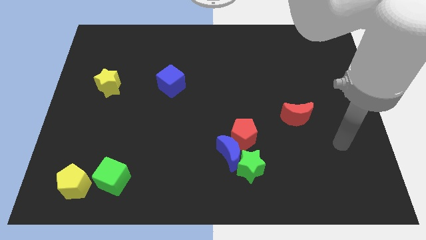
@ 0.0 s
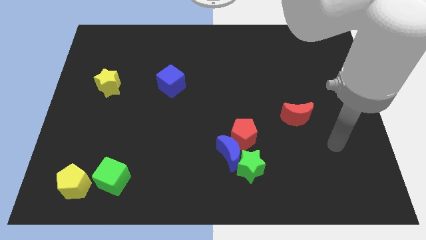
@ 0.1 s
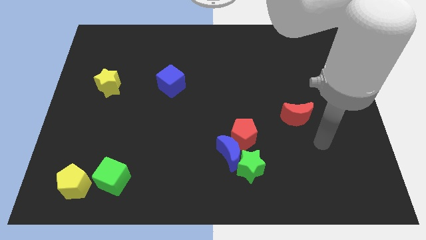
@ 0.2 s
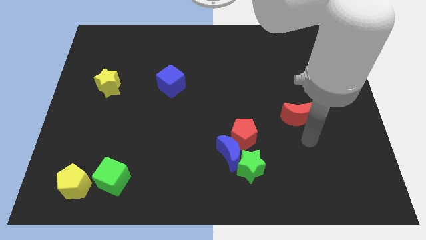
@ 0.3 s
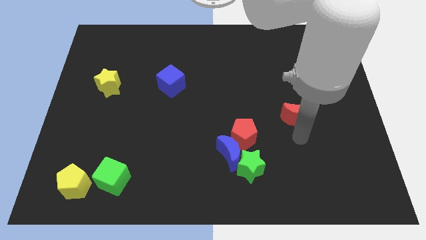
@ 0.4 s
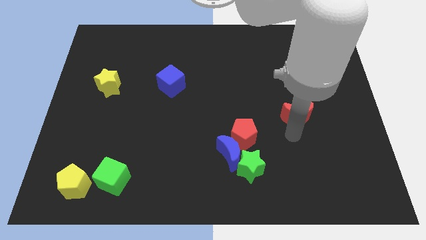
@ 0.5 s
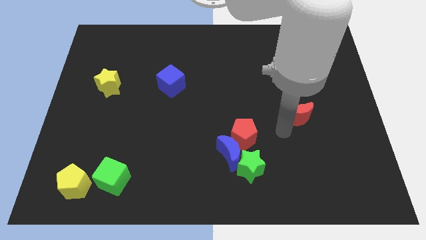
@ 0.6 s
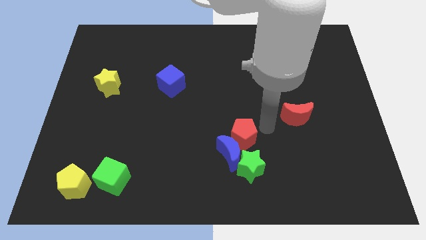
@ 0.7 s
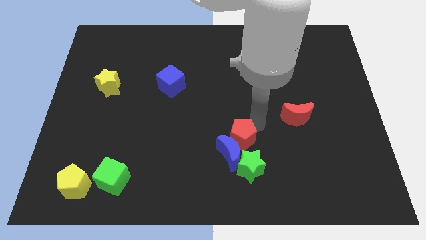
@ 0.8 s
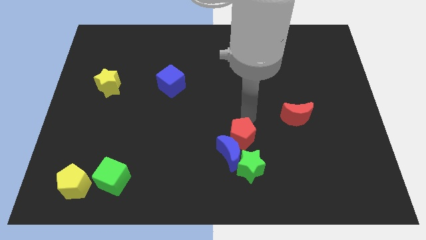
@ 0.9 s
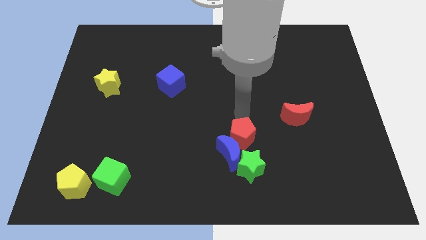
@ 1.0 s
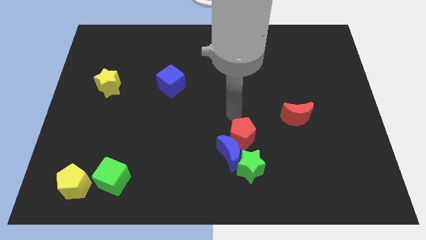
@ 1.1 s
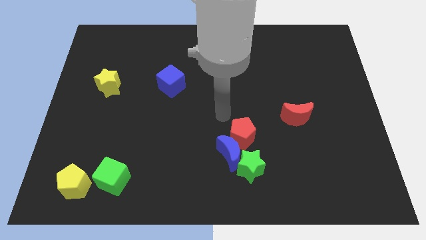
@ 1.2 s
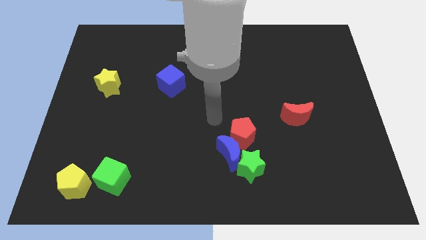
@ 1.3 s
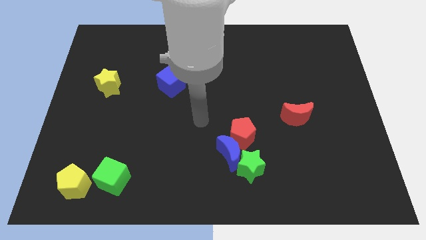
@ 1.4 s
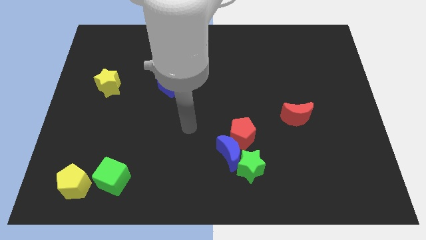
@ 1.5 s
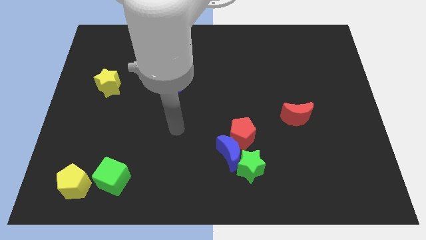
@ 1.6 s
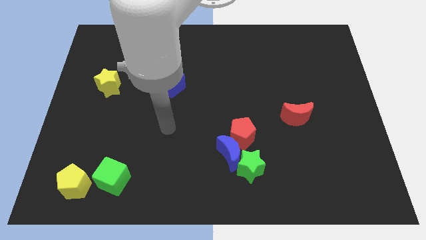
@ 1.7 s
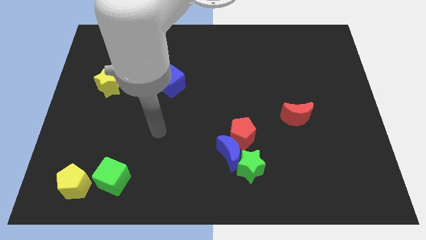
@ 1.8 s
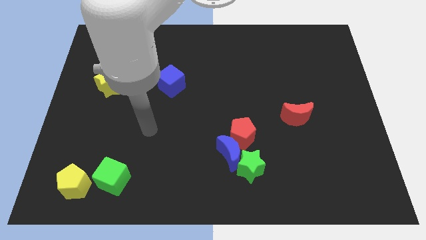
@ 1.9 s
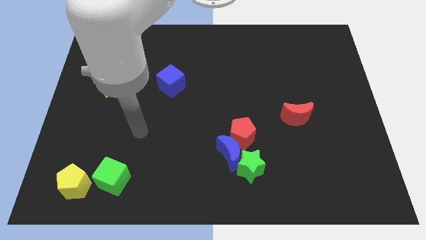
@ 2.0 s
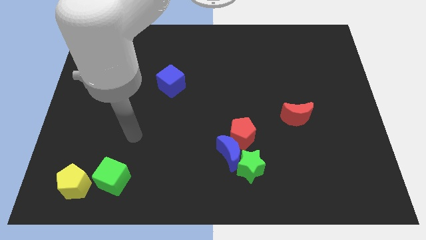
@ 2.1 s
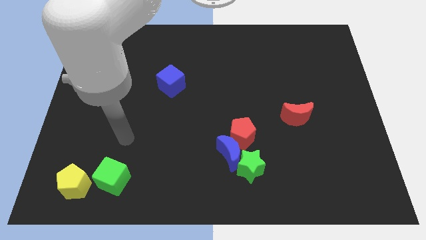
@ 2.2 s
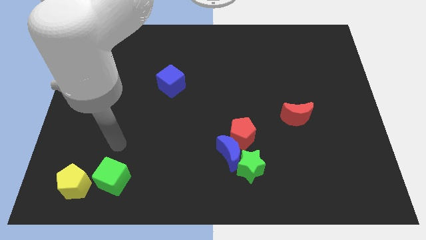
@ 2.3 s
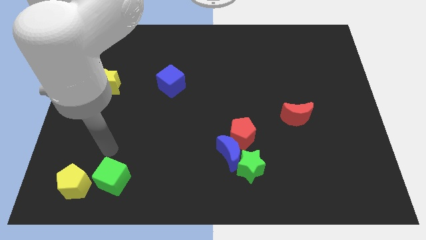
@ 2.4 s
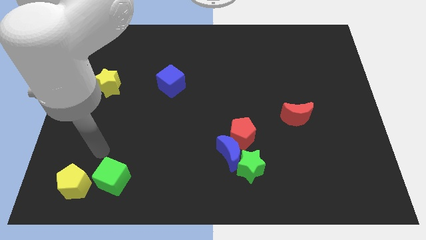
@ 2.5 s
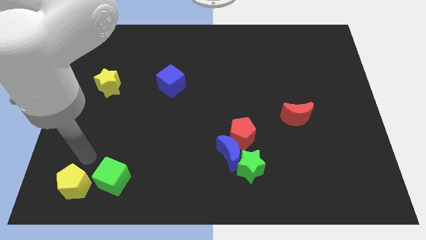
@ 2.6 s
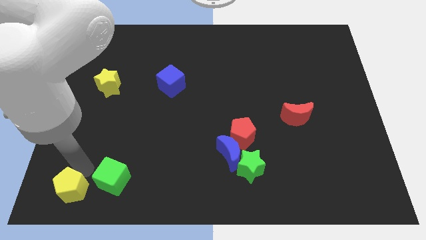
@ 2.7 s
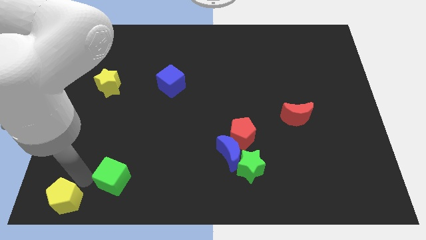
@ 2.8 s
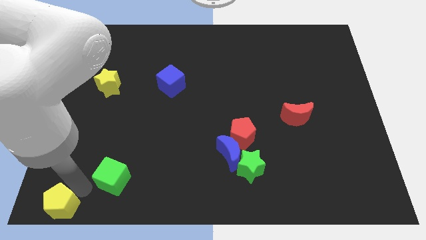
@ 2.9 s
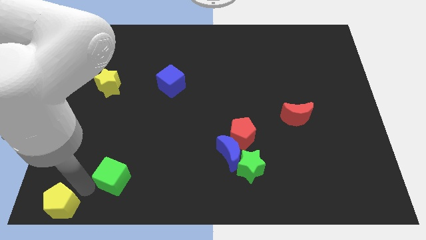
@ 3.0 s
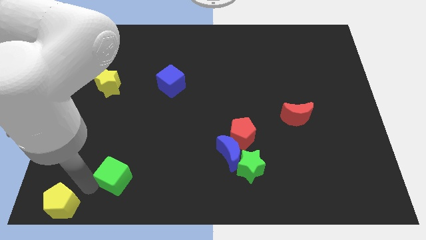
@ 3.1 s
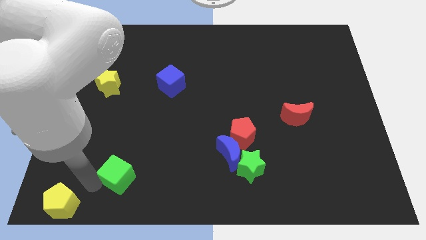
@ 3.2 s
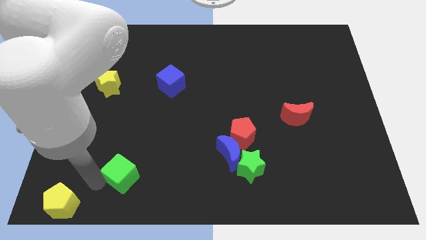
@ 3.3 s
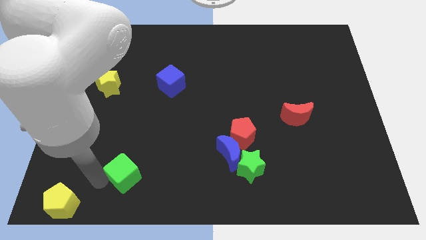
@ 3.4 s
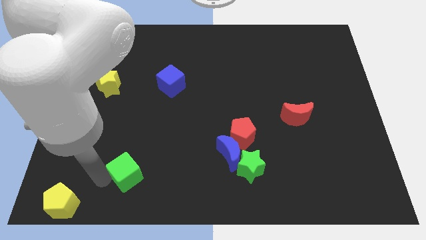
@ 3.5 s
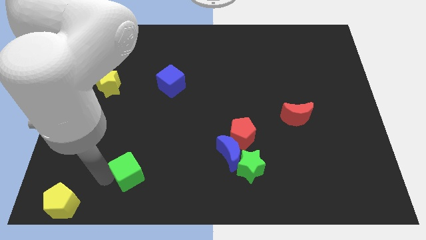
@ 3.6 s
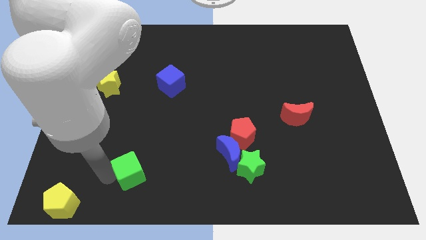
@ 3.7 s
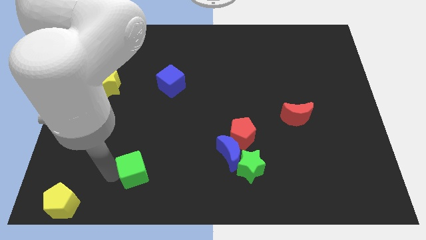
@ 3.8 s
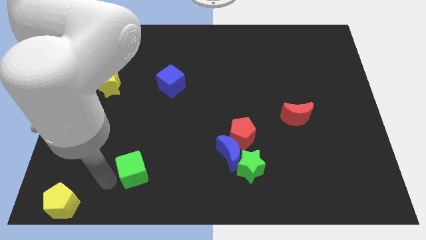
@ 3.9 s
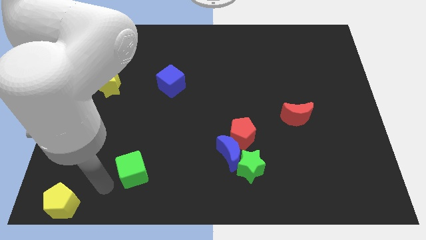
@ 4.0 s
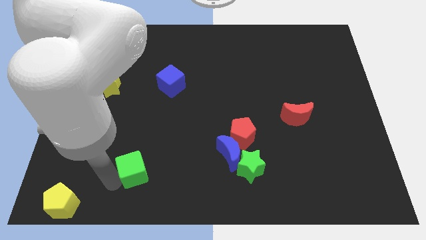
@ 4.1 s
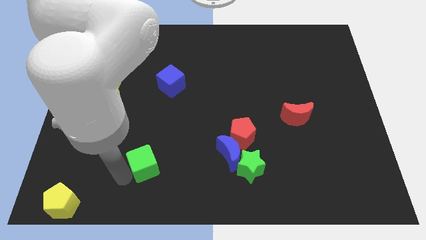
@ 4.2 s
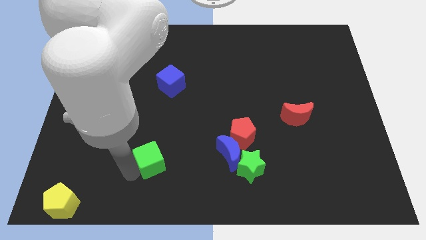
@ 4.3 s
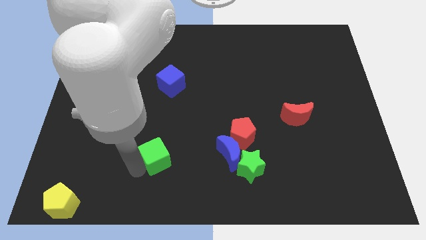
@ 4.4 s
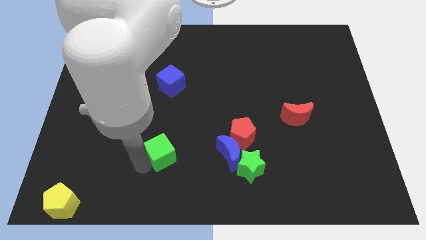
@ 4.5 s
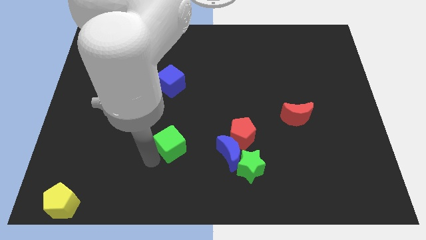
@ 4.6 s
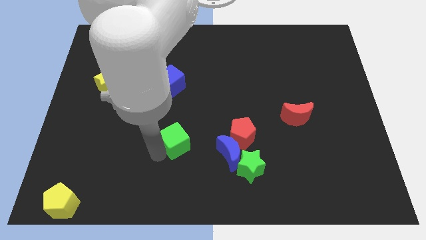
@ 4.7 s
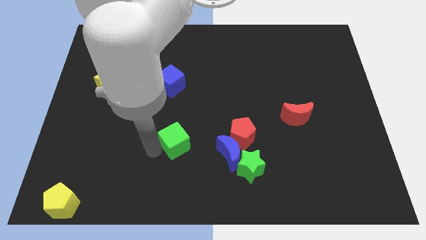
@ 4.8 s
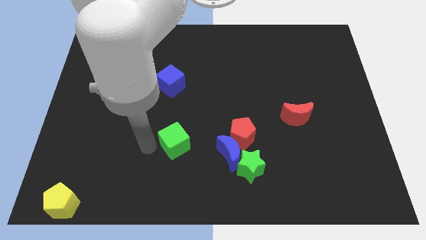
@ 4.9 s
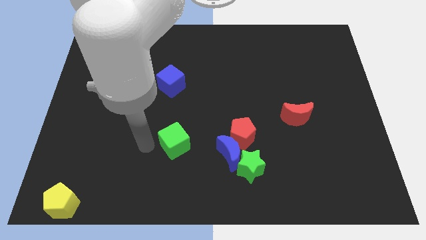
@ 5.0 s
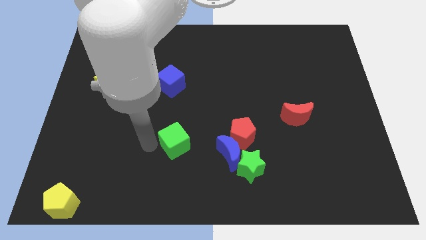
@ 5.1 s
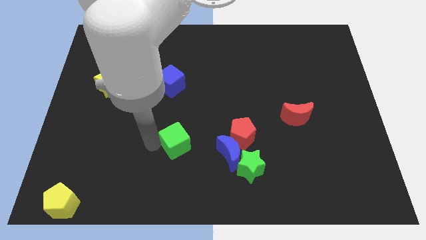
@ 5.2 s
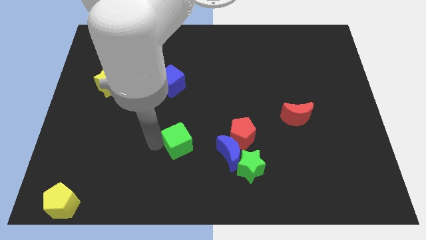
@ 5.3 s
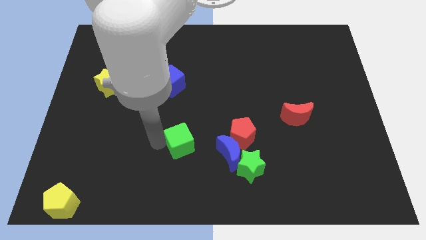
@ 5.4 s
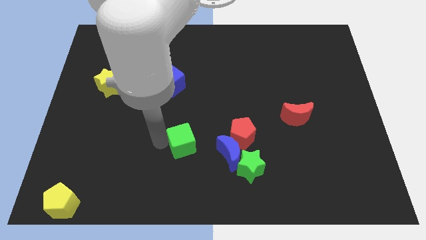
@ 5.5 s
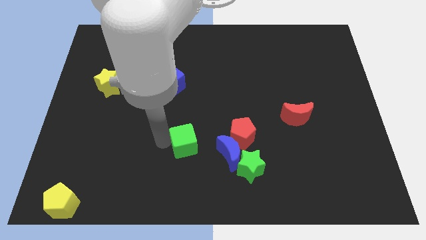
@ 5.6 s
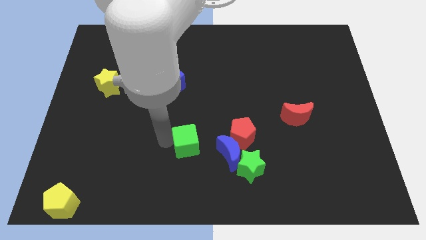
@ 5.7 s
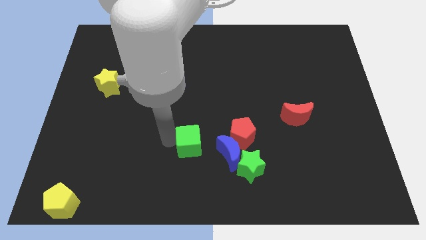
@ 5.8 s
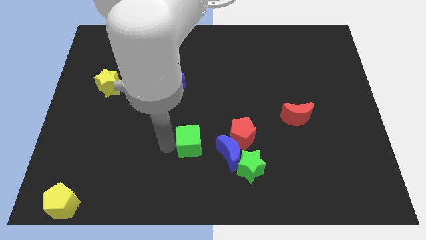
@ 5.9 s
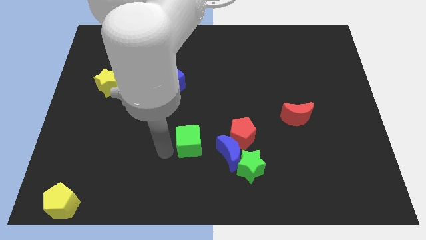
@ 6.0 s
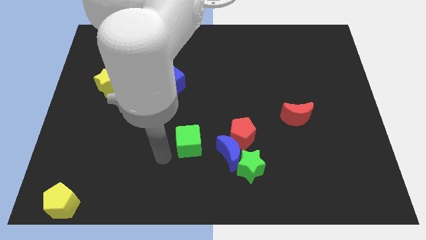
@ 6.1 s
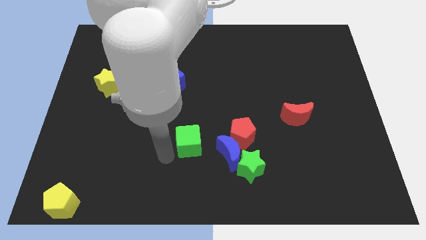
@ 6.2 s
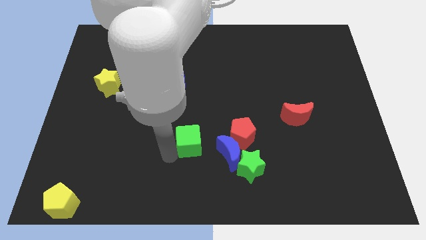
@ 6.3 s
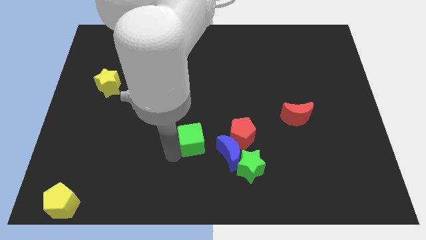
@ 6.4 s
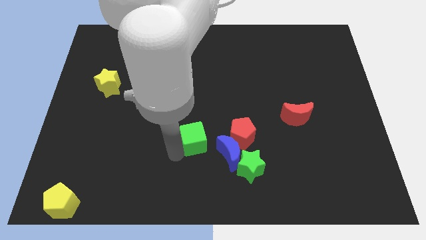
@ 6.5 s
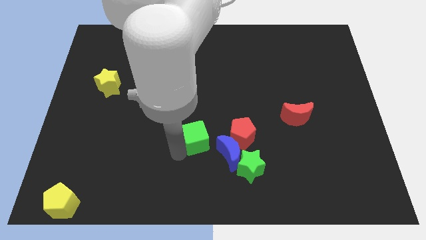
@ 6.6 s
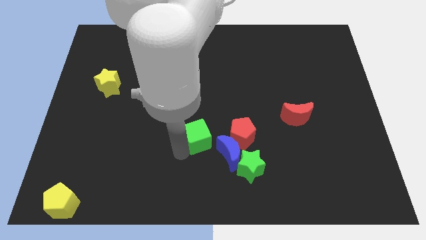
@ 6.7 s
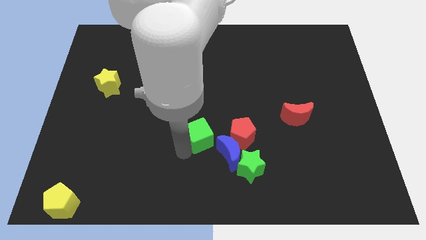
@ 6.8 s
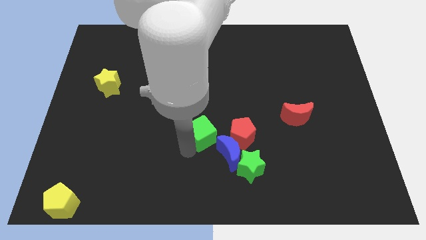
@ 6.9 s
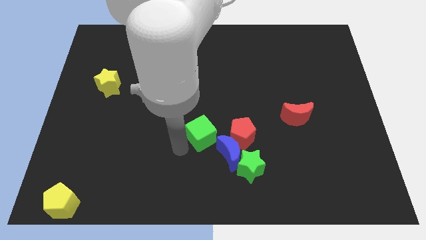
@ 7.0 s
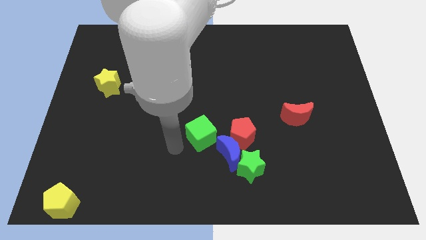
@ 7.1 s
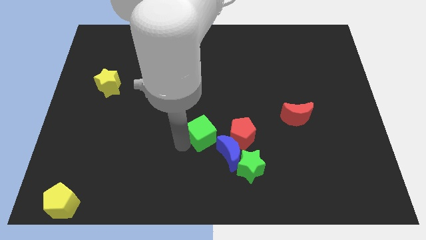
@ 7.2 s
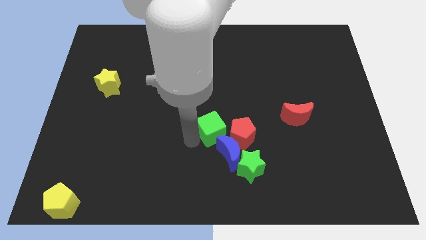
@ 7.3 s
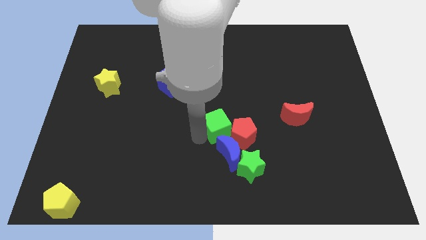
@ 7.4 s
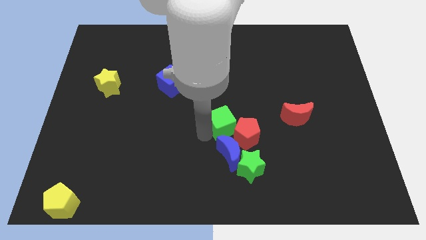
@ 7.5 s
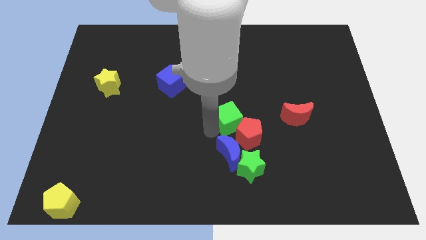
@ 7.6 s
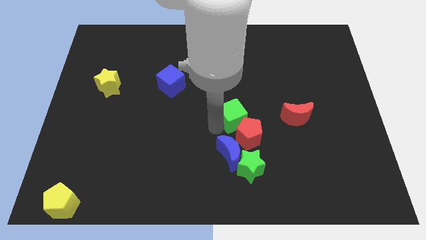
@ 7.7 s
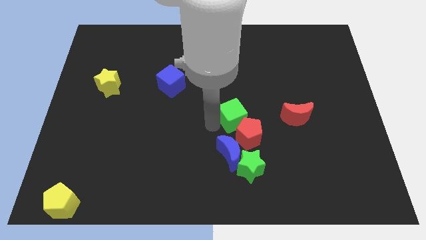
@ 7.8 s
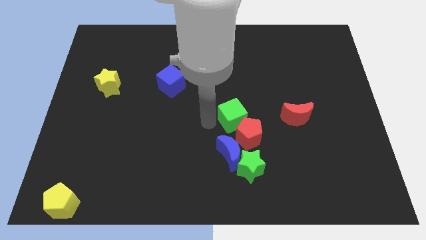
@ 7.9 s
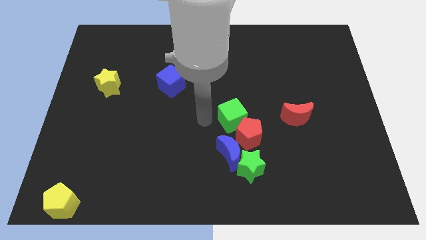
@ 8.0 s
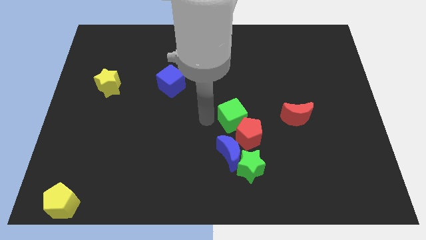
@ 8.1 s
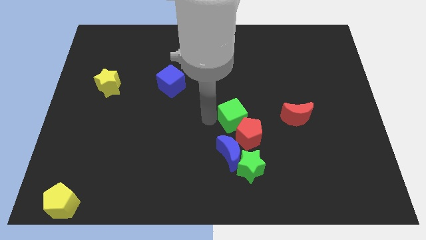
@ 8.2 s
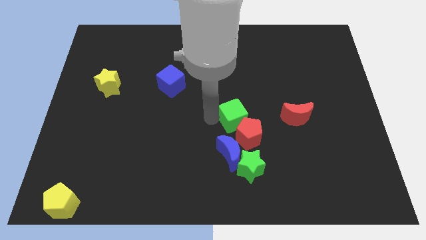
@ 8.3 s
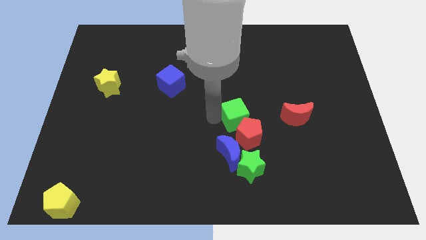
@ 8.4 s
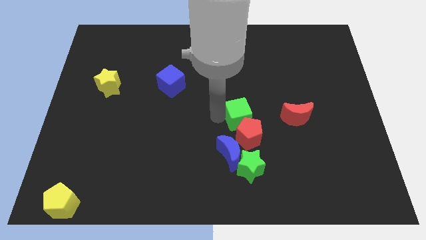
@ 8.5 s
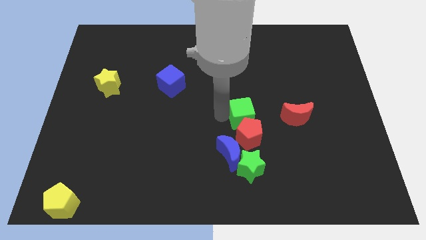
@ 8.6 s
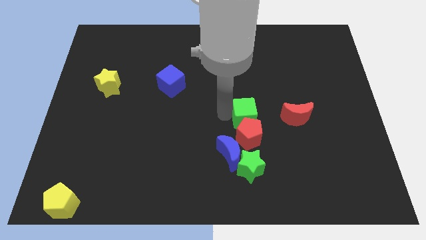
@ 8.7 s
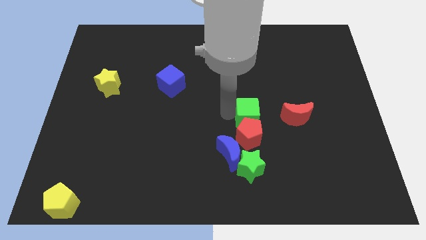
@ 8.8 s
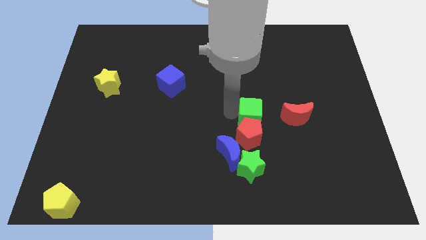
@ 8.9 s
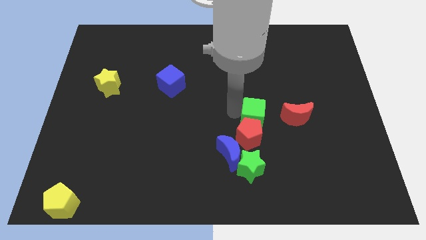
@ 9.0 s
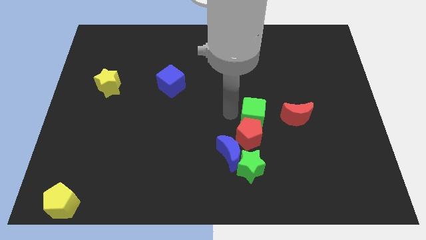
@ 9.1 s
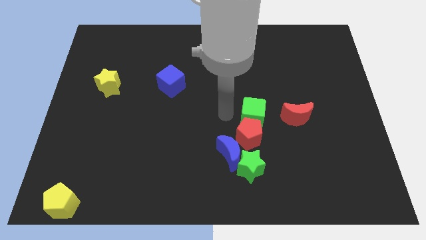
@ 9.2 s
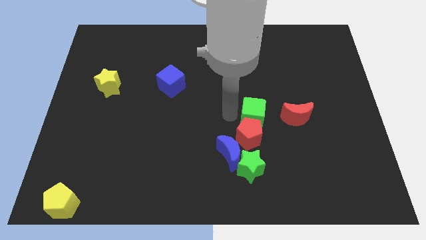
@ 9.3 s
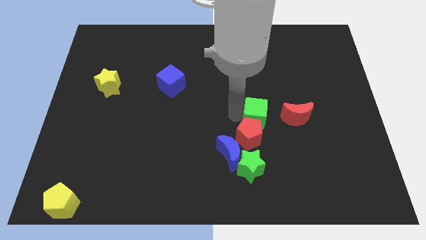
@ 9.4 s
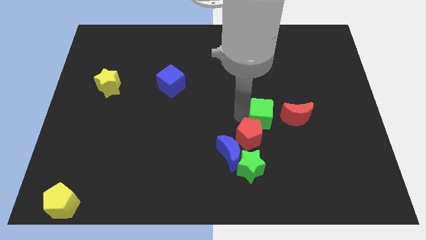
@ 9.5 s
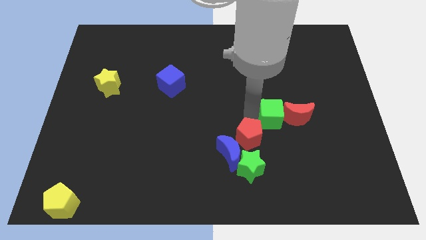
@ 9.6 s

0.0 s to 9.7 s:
put the green cube to the red moon
